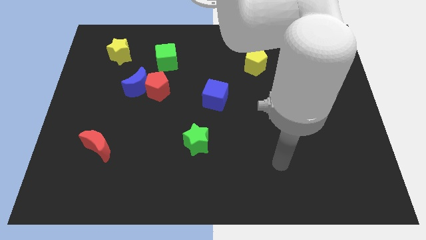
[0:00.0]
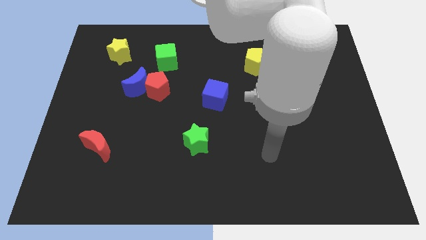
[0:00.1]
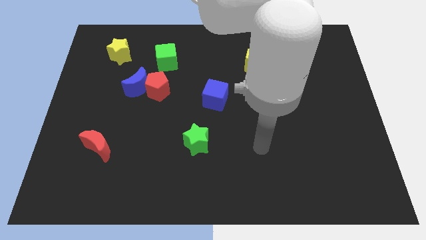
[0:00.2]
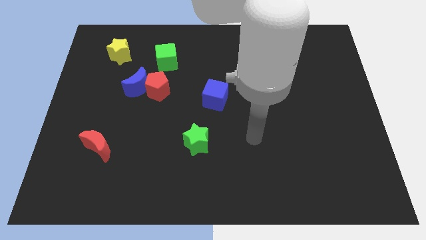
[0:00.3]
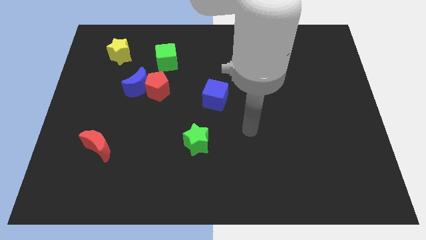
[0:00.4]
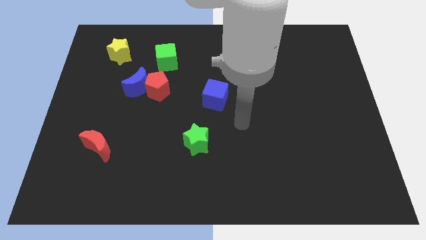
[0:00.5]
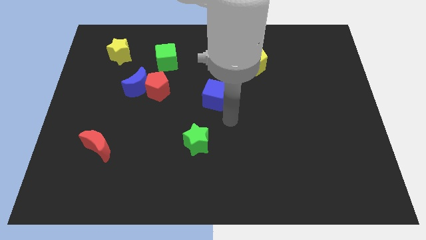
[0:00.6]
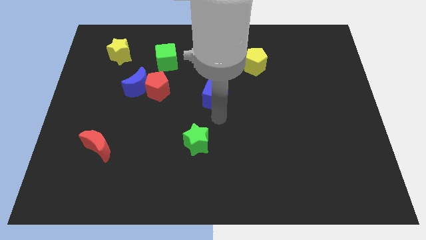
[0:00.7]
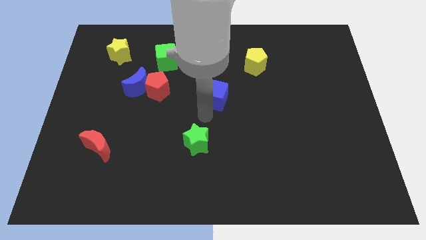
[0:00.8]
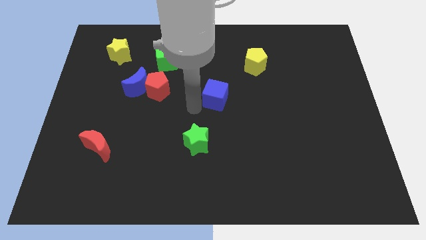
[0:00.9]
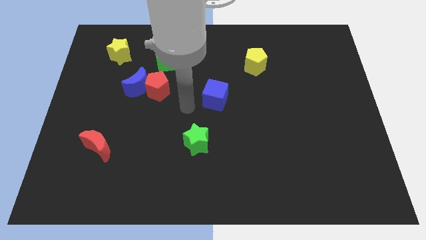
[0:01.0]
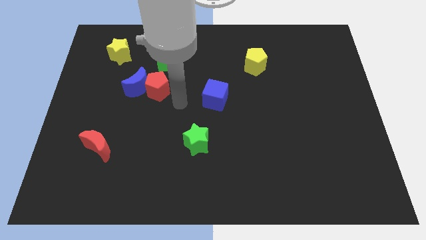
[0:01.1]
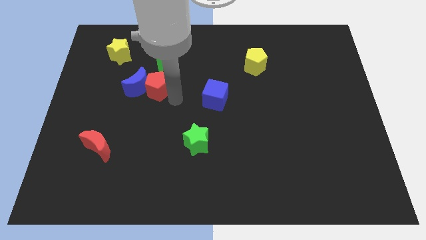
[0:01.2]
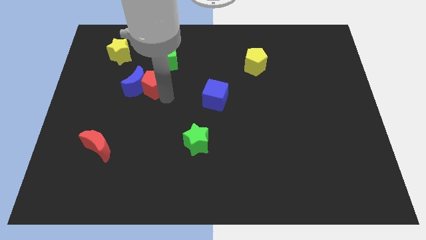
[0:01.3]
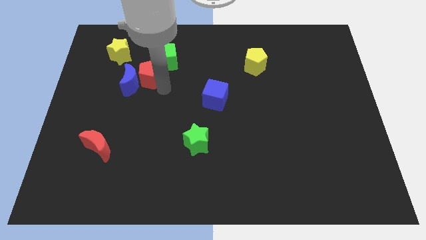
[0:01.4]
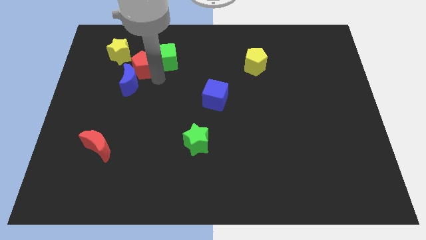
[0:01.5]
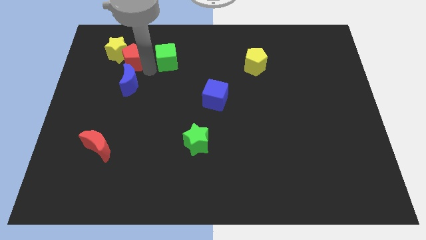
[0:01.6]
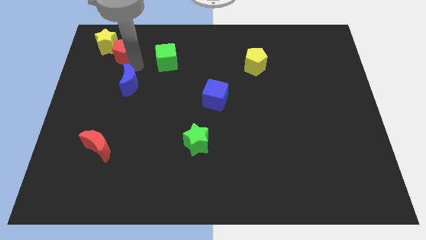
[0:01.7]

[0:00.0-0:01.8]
separate the blue moon from the red pentagon

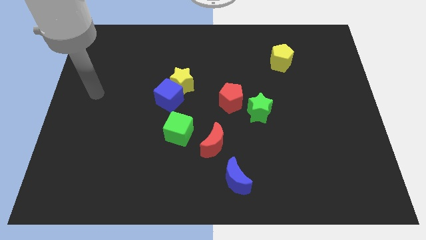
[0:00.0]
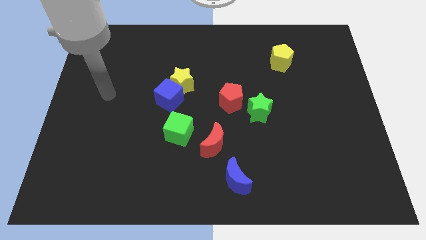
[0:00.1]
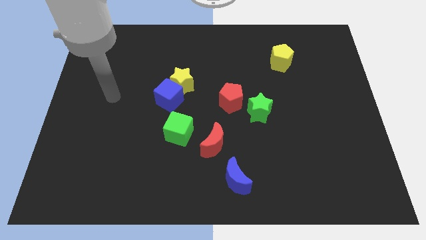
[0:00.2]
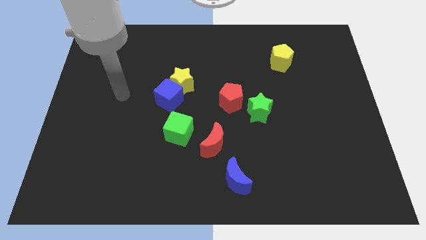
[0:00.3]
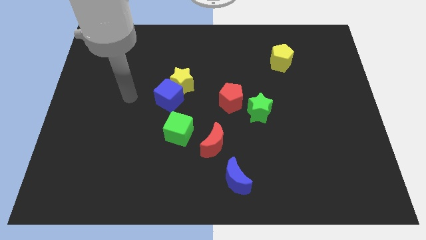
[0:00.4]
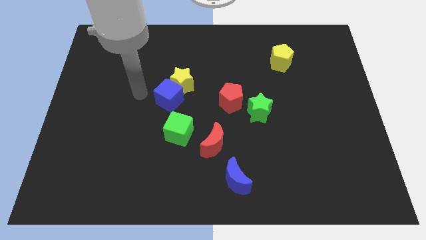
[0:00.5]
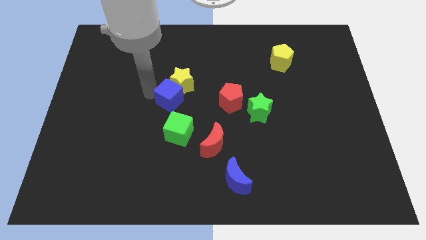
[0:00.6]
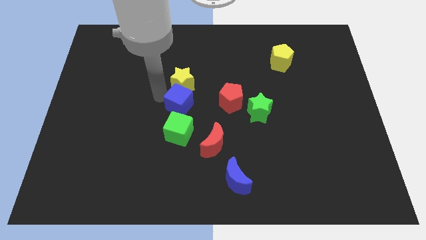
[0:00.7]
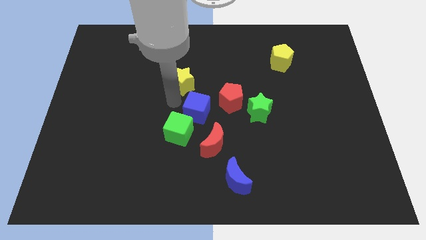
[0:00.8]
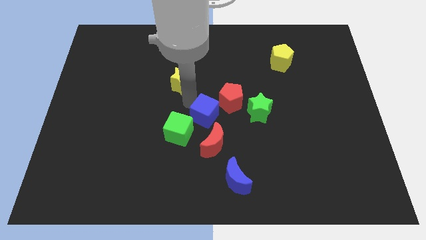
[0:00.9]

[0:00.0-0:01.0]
pull the yellow star apart from the blue cube

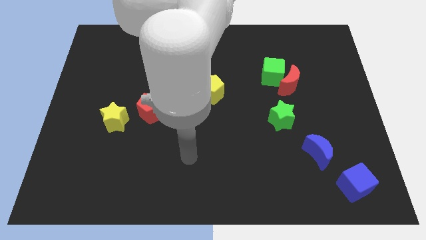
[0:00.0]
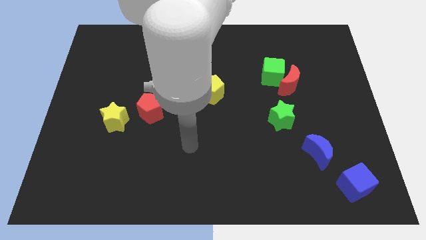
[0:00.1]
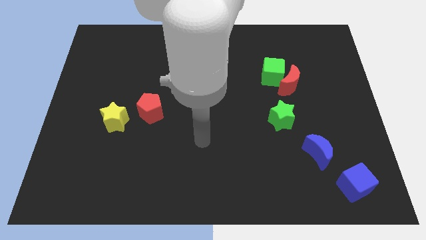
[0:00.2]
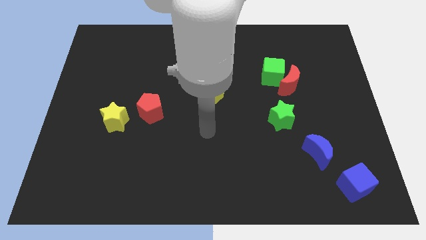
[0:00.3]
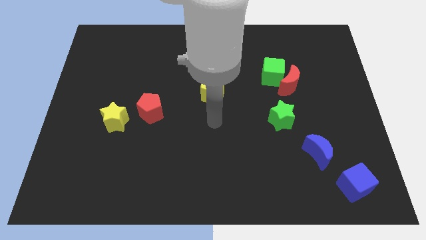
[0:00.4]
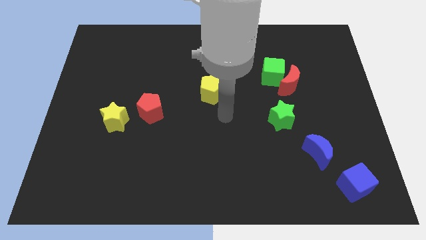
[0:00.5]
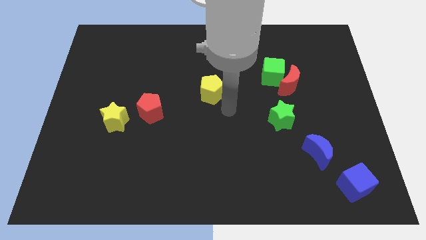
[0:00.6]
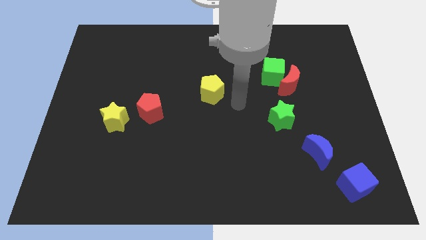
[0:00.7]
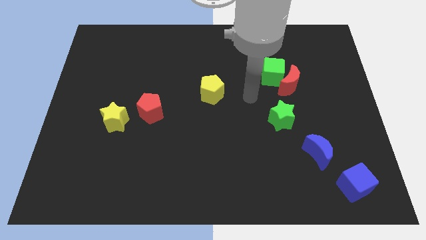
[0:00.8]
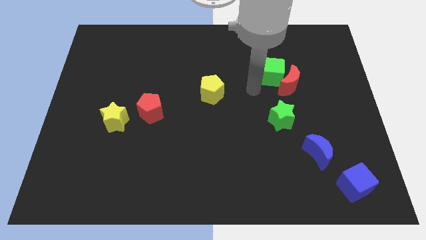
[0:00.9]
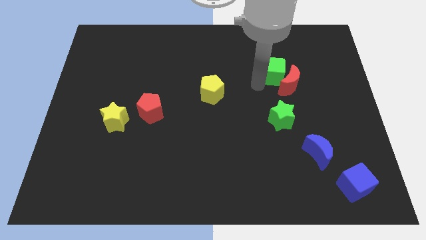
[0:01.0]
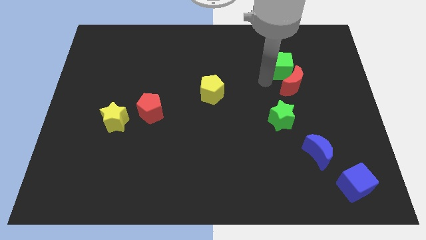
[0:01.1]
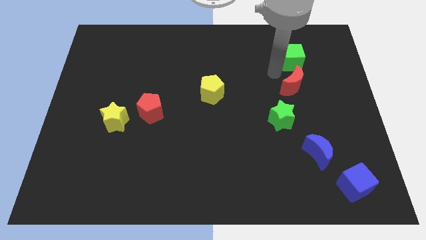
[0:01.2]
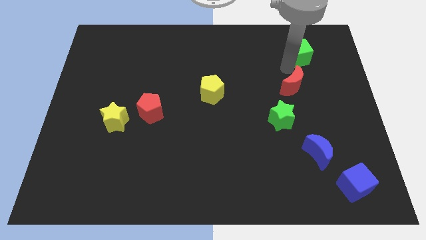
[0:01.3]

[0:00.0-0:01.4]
move the red moon away from the green cube

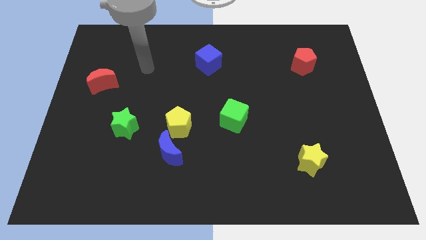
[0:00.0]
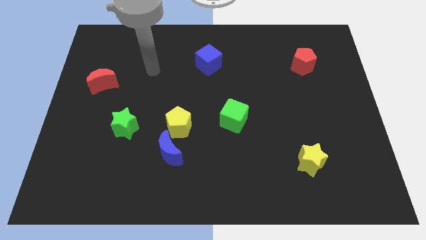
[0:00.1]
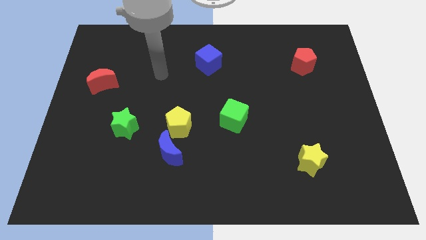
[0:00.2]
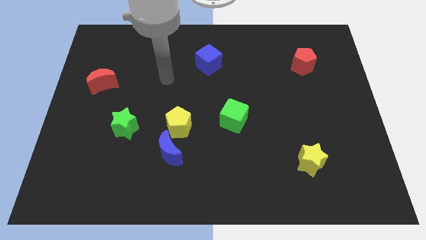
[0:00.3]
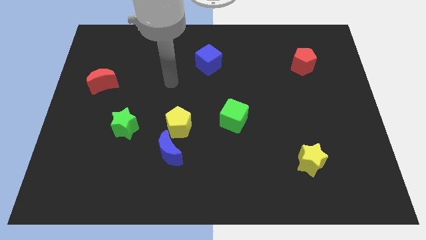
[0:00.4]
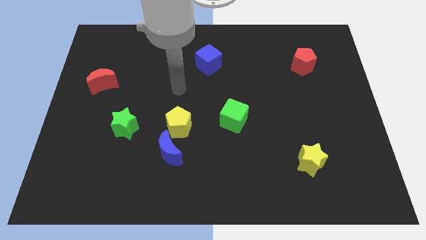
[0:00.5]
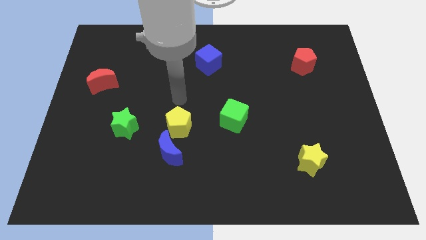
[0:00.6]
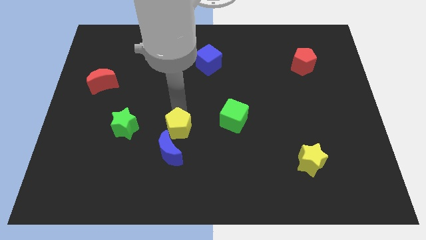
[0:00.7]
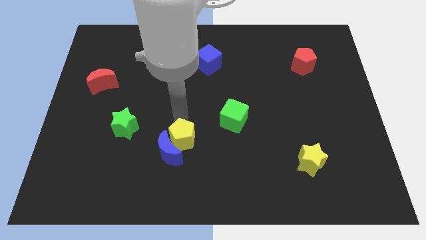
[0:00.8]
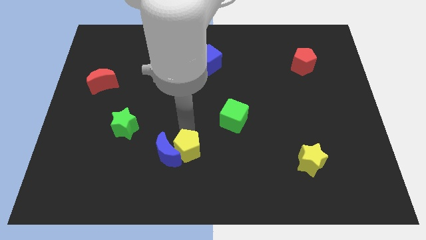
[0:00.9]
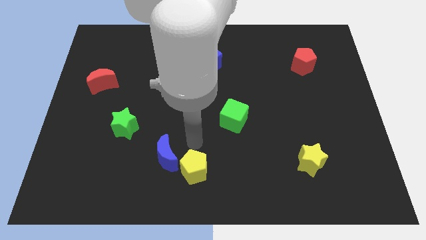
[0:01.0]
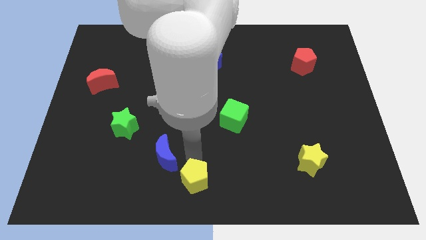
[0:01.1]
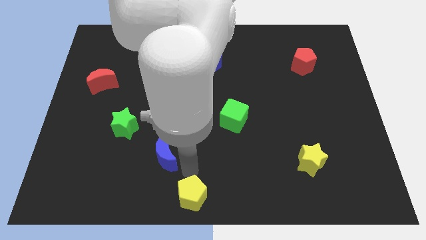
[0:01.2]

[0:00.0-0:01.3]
pull the blue moon apart from the yellow pentagon

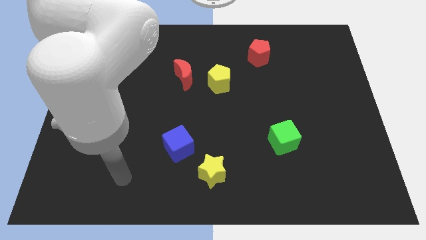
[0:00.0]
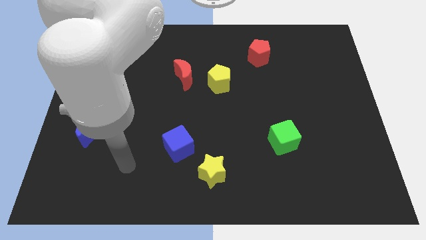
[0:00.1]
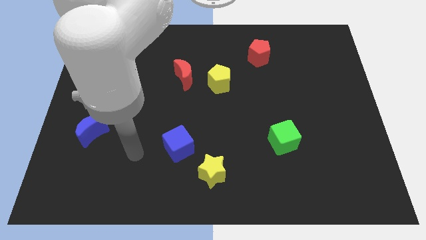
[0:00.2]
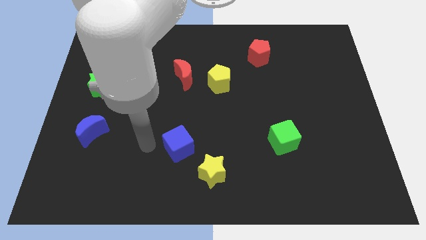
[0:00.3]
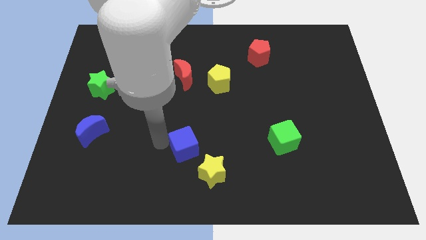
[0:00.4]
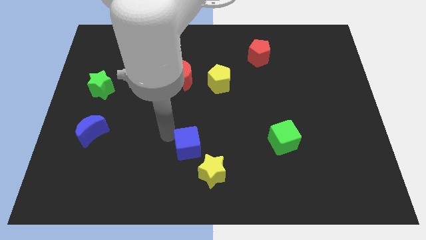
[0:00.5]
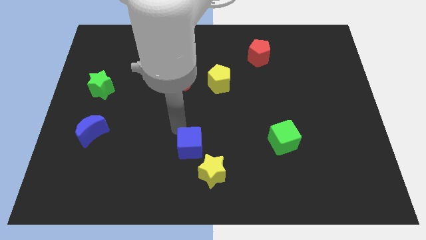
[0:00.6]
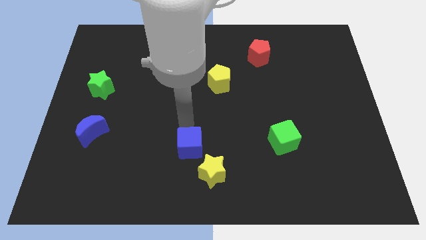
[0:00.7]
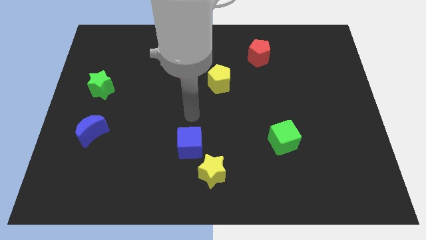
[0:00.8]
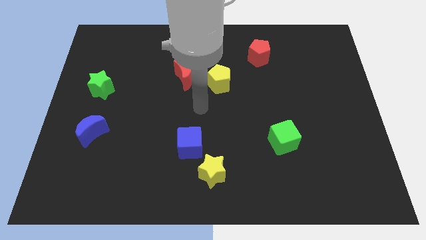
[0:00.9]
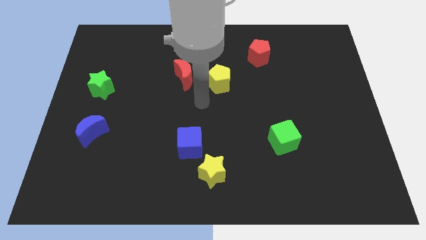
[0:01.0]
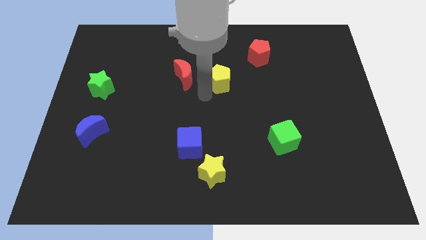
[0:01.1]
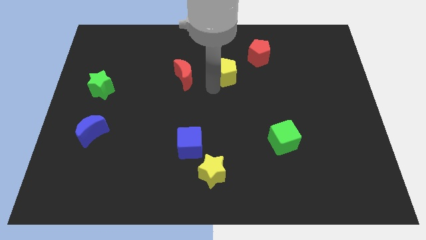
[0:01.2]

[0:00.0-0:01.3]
pull the red moon apart from the yellow pentagon

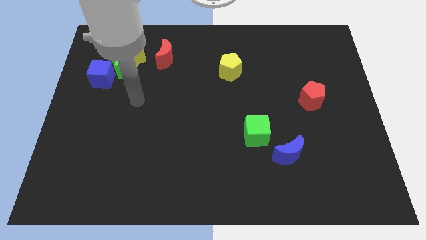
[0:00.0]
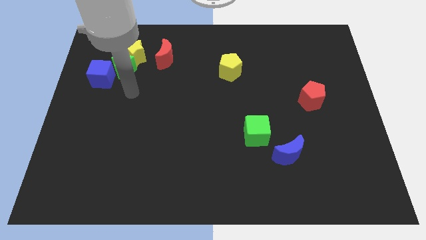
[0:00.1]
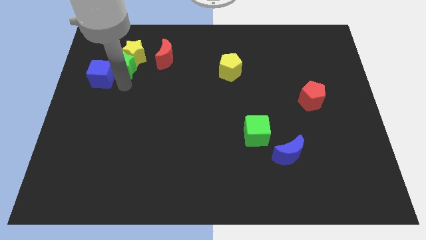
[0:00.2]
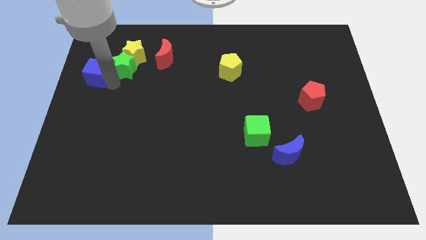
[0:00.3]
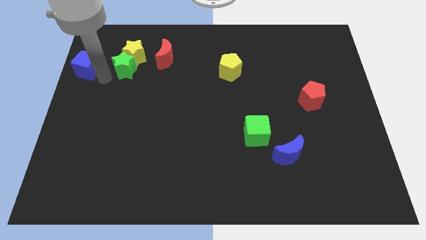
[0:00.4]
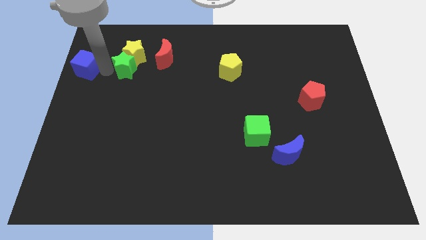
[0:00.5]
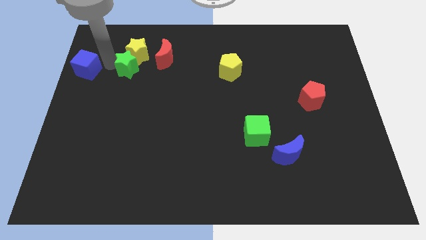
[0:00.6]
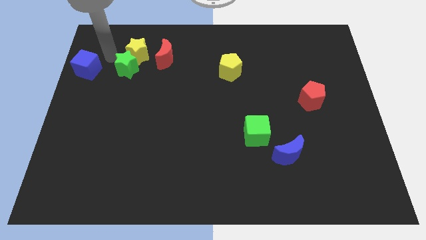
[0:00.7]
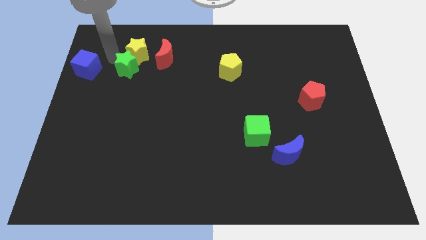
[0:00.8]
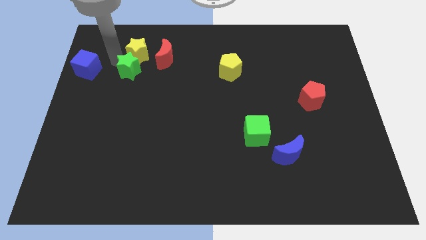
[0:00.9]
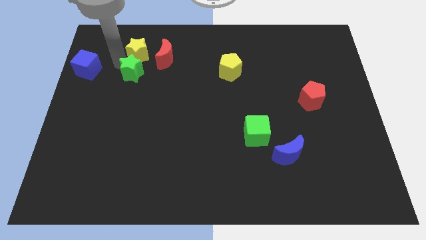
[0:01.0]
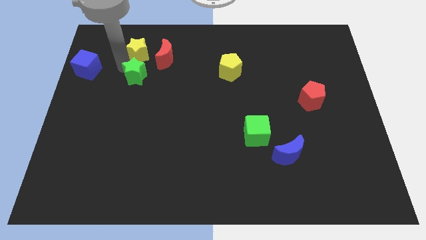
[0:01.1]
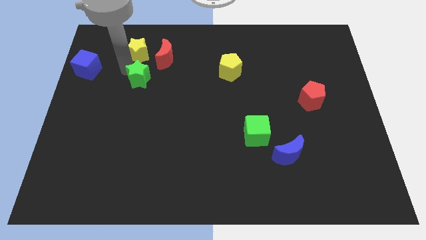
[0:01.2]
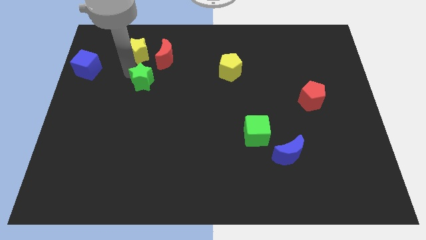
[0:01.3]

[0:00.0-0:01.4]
pull the green star apart from the yellow star and blue cube

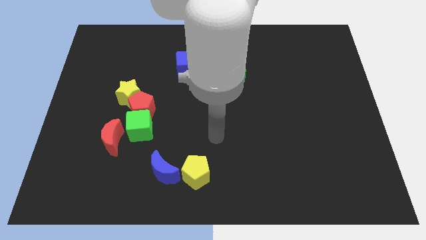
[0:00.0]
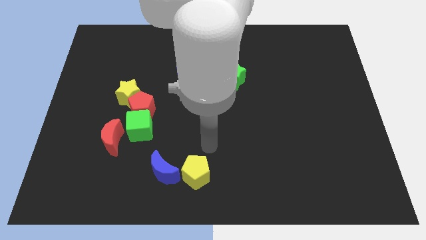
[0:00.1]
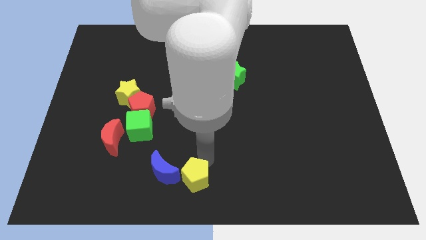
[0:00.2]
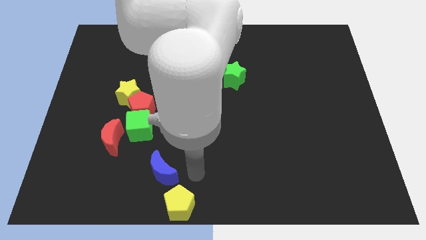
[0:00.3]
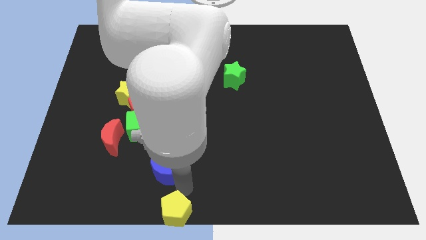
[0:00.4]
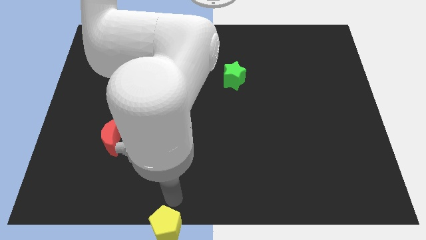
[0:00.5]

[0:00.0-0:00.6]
separate the blue moon from the yellow pentagon

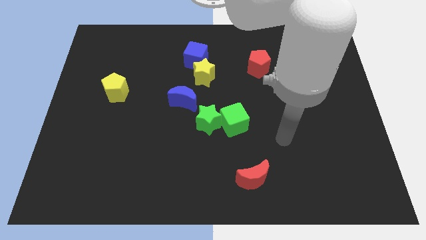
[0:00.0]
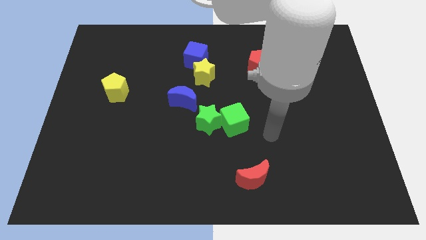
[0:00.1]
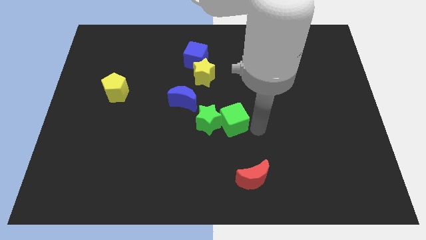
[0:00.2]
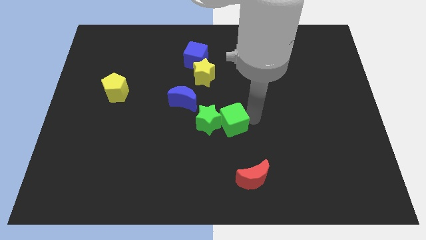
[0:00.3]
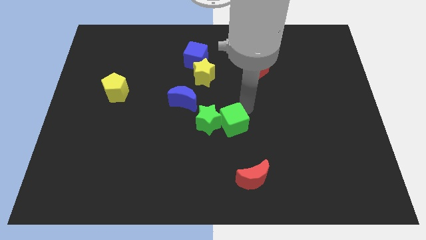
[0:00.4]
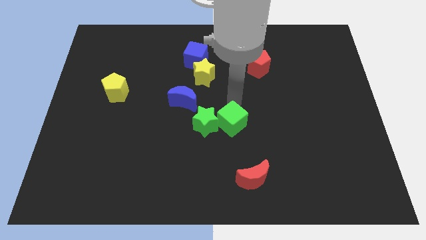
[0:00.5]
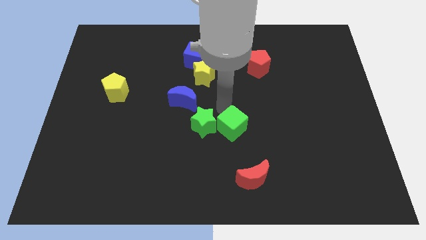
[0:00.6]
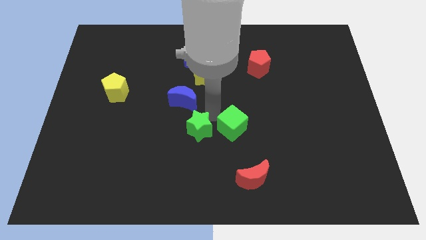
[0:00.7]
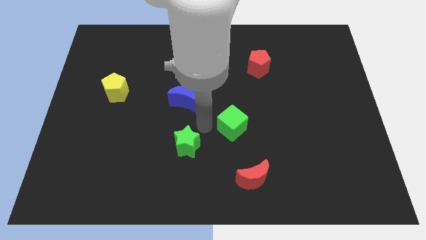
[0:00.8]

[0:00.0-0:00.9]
separate the green cube from the green star
